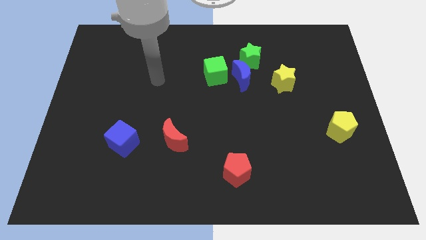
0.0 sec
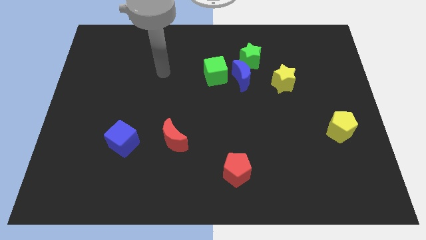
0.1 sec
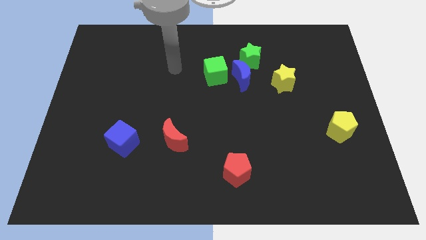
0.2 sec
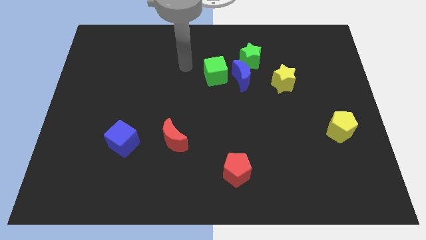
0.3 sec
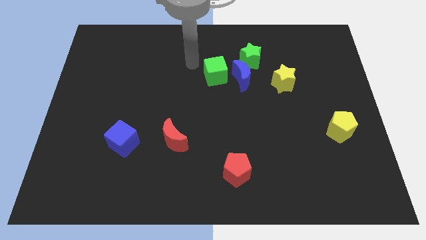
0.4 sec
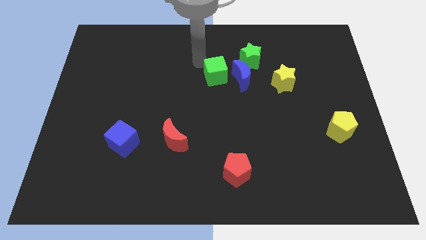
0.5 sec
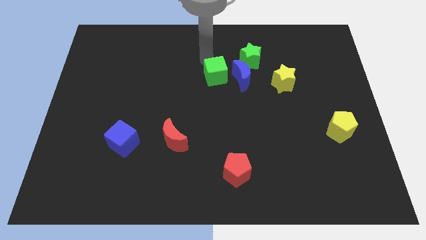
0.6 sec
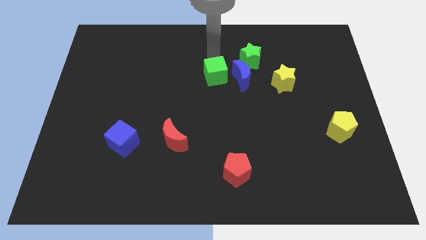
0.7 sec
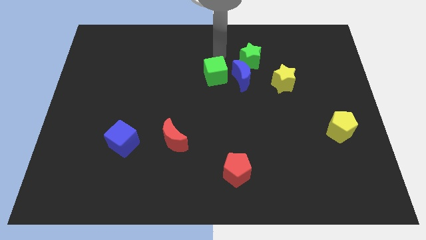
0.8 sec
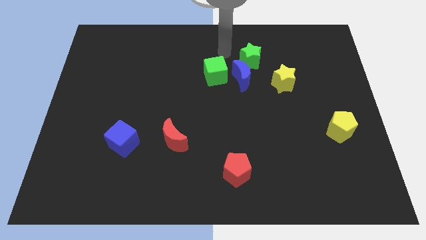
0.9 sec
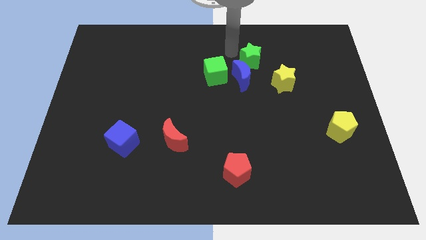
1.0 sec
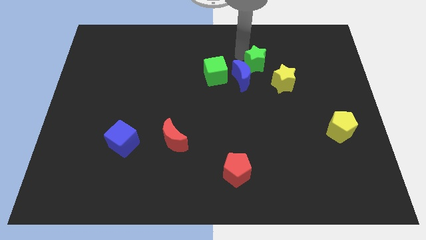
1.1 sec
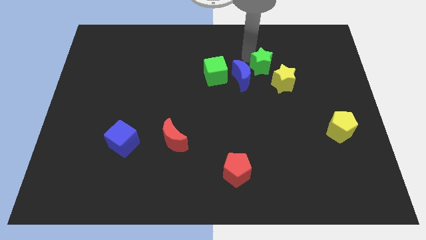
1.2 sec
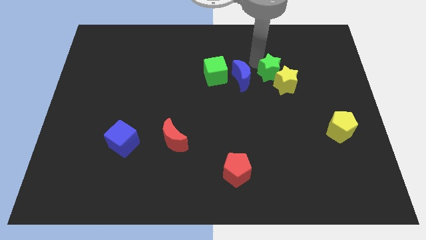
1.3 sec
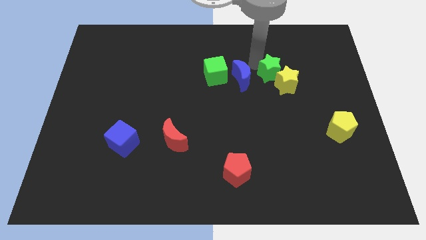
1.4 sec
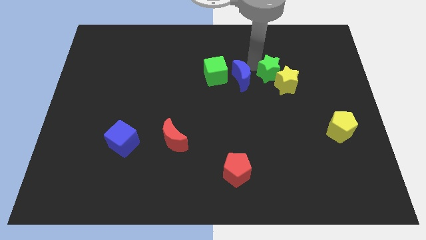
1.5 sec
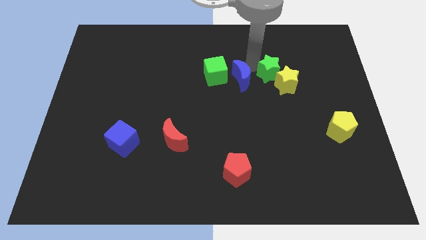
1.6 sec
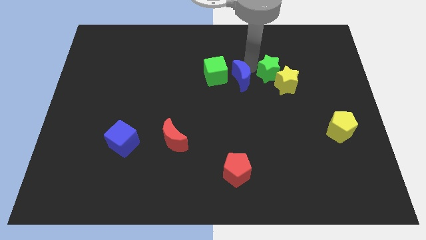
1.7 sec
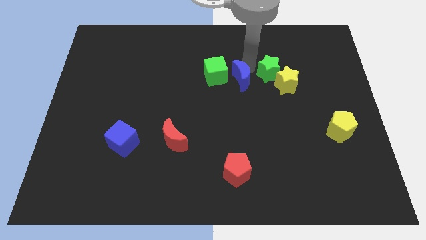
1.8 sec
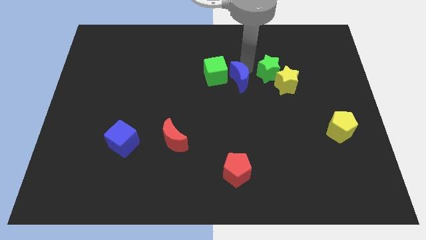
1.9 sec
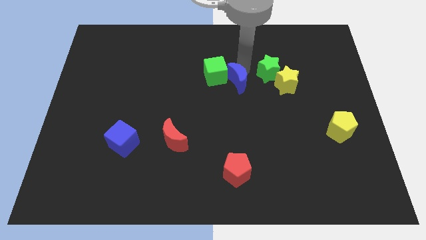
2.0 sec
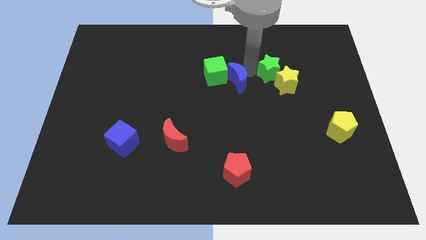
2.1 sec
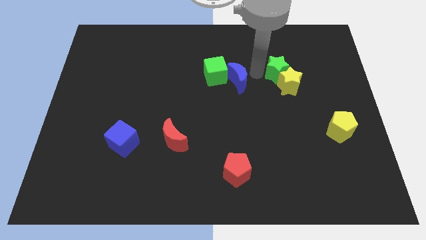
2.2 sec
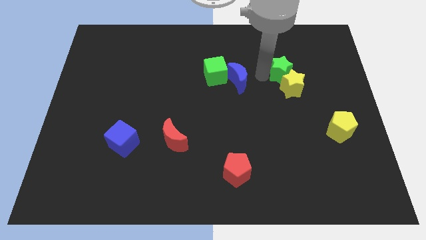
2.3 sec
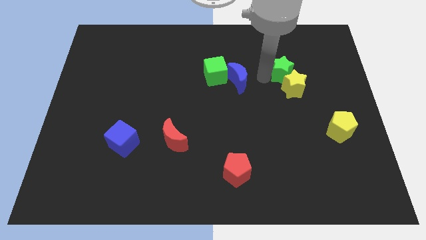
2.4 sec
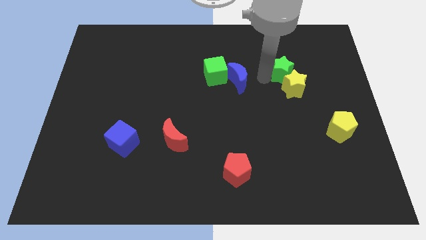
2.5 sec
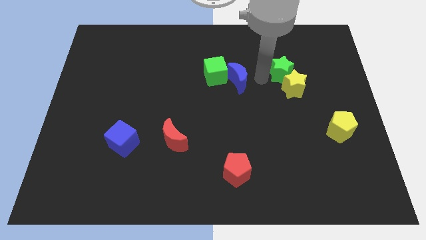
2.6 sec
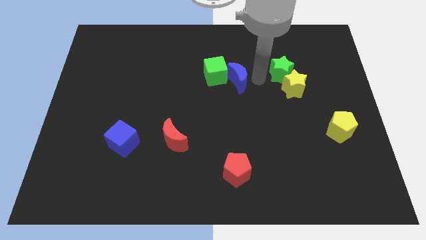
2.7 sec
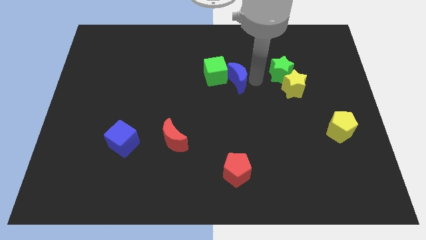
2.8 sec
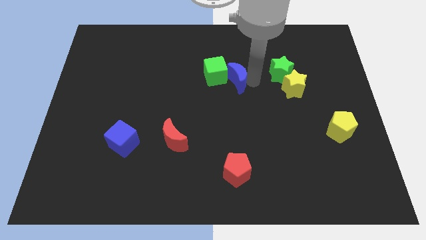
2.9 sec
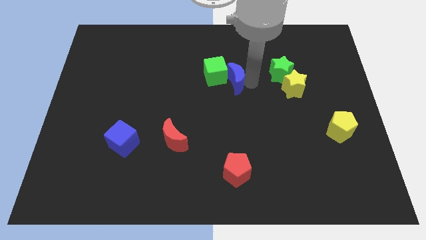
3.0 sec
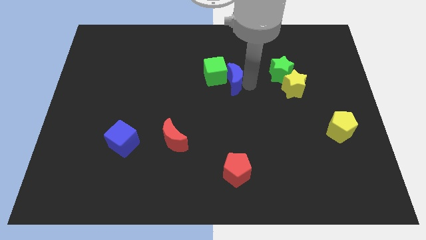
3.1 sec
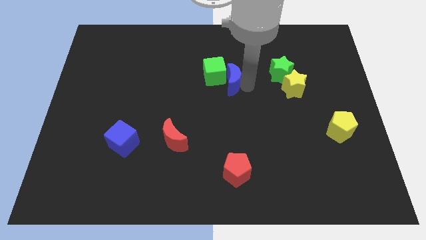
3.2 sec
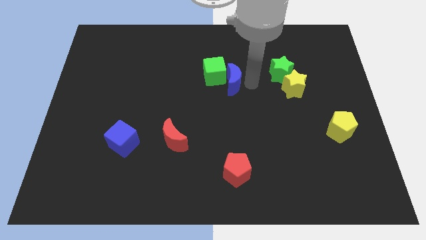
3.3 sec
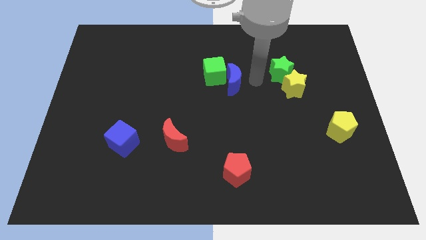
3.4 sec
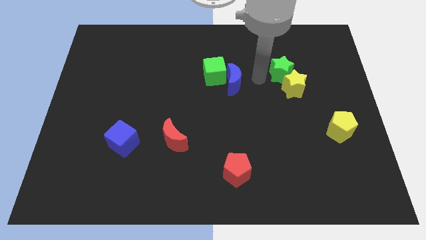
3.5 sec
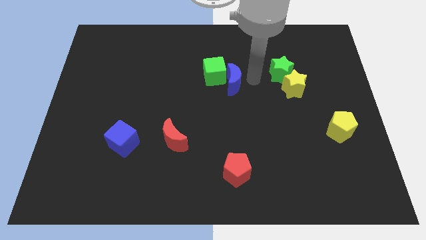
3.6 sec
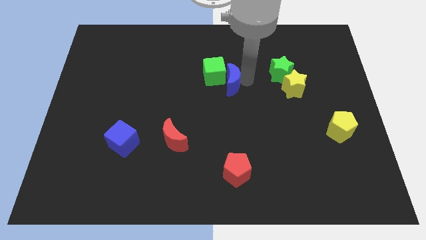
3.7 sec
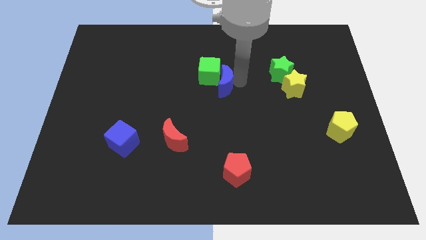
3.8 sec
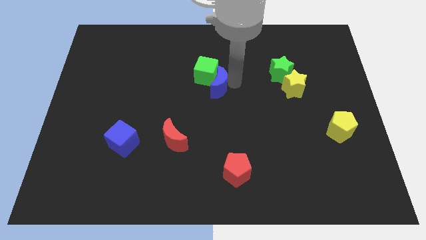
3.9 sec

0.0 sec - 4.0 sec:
move the blue moon away from the group

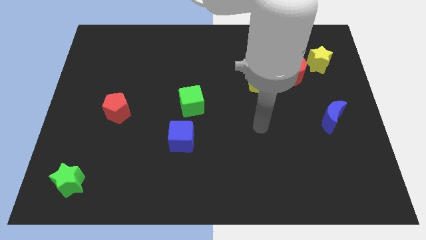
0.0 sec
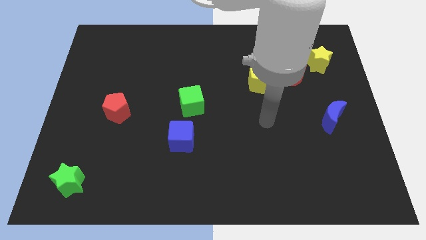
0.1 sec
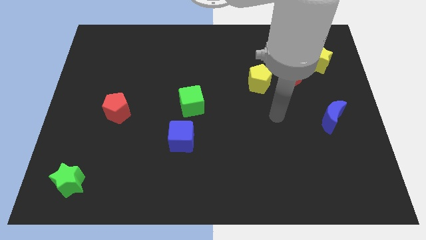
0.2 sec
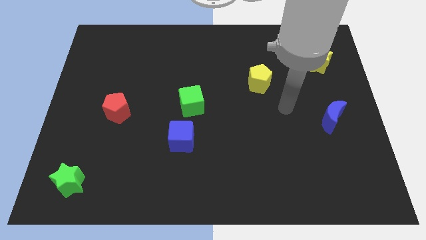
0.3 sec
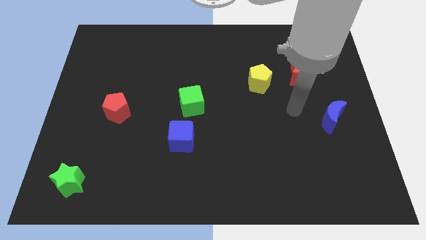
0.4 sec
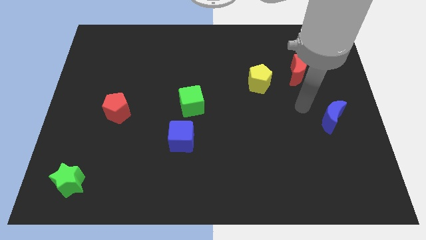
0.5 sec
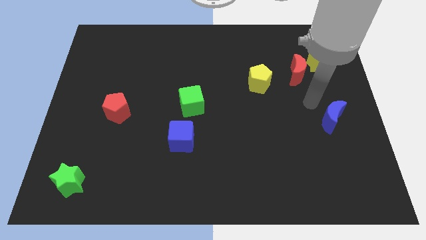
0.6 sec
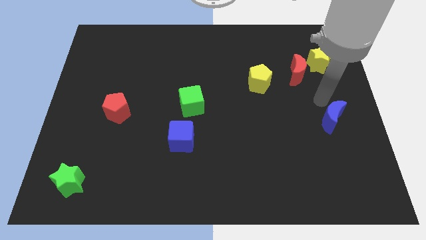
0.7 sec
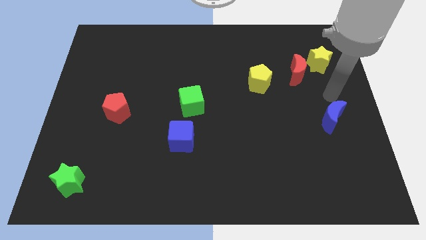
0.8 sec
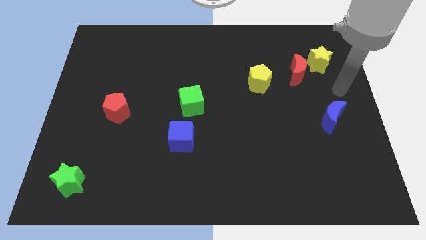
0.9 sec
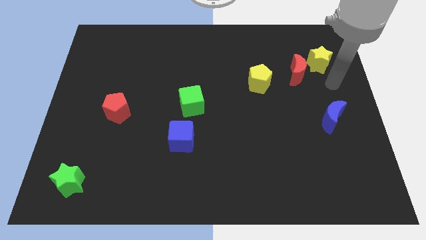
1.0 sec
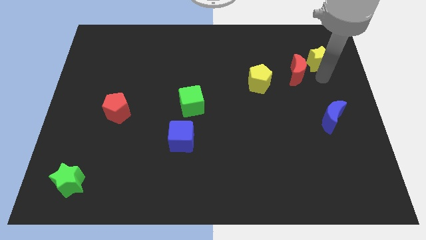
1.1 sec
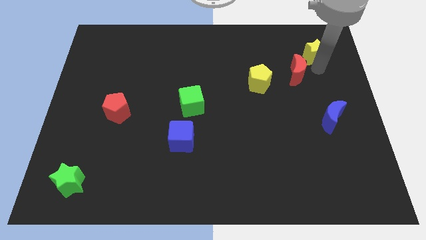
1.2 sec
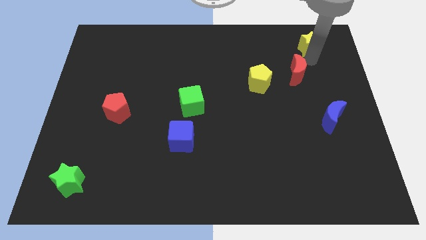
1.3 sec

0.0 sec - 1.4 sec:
pull the red moon apart from the yellow star

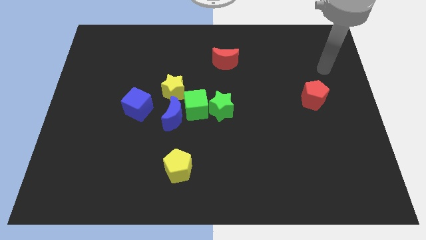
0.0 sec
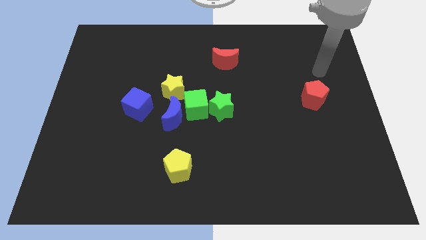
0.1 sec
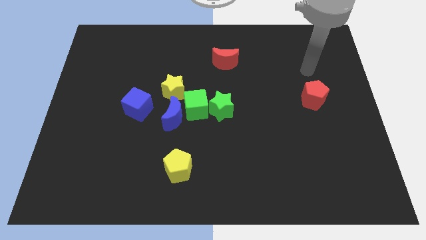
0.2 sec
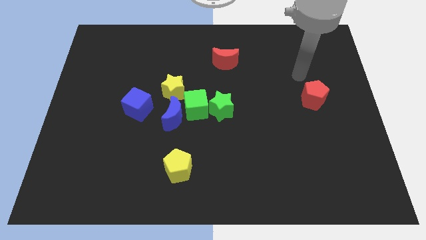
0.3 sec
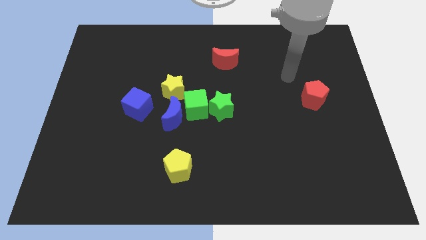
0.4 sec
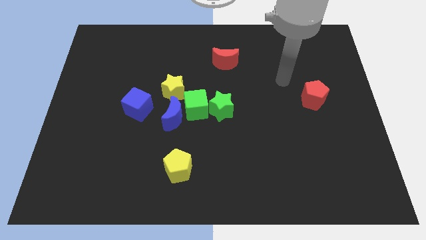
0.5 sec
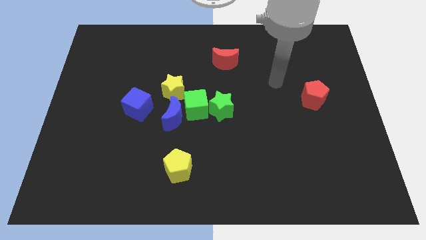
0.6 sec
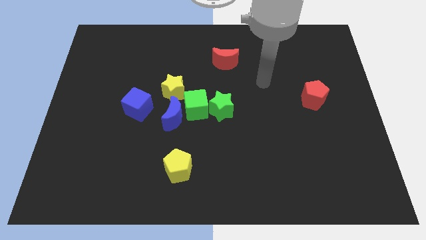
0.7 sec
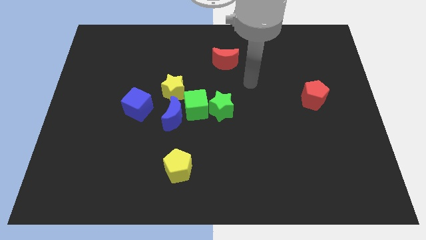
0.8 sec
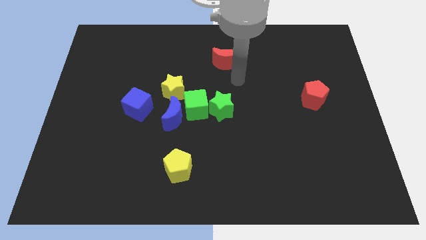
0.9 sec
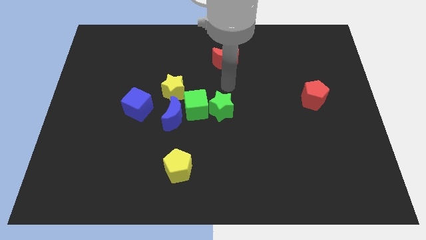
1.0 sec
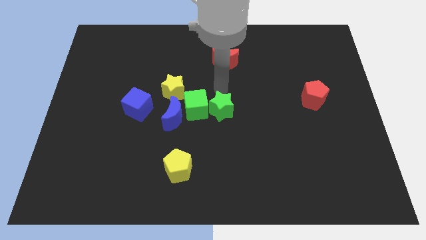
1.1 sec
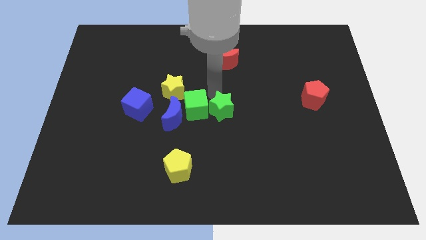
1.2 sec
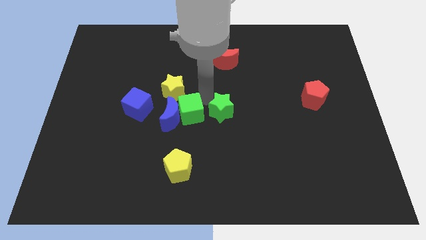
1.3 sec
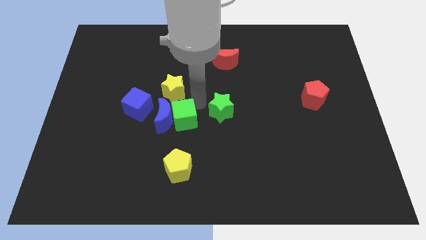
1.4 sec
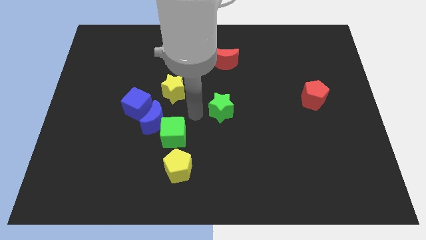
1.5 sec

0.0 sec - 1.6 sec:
move the green star away from the green cube

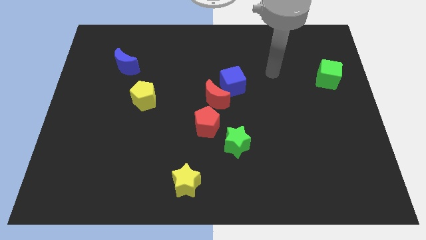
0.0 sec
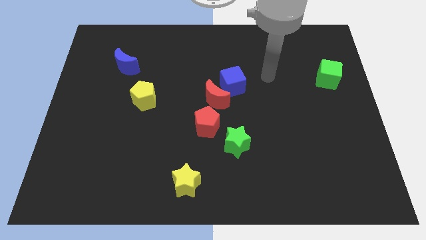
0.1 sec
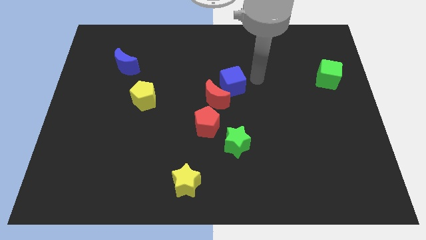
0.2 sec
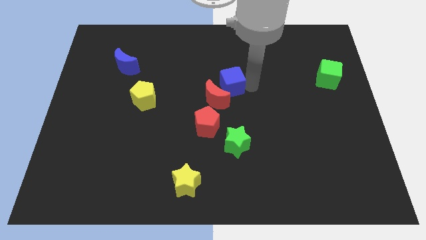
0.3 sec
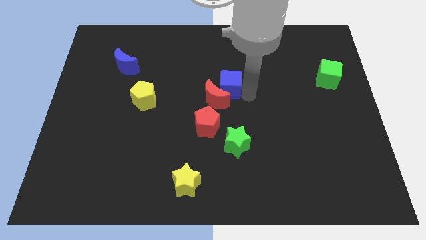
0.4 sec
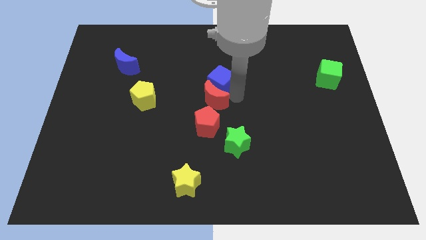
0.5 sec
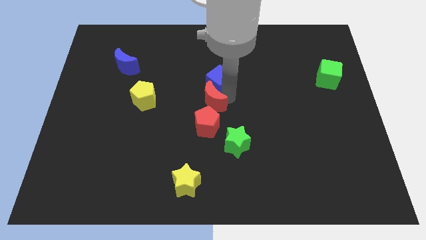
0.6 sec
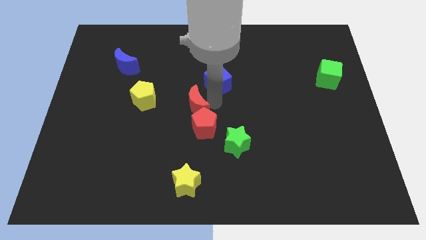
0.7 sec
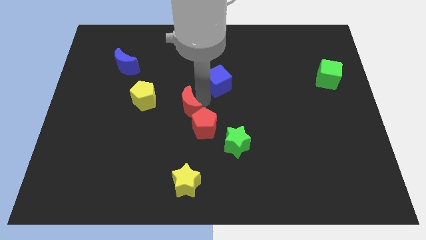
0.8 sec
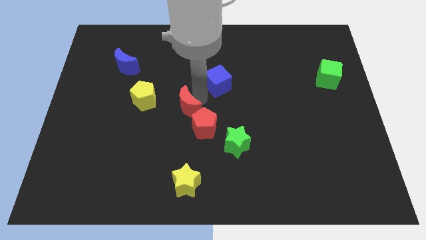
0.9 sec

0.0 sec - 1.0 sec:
move the blue cube away from the red moon

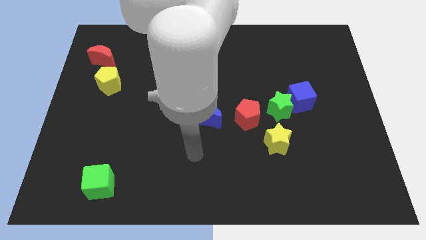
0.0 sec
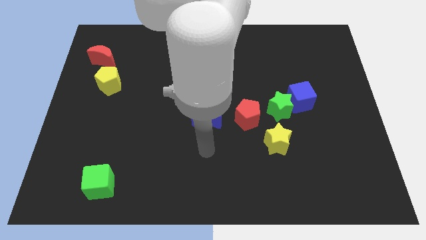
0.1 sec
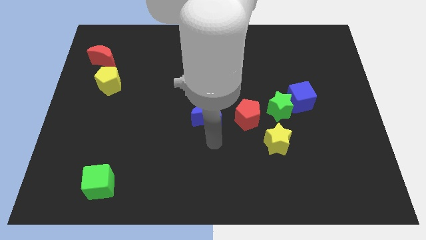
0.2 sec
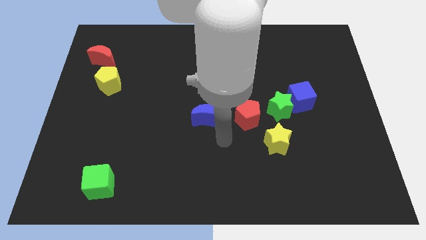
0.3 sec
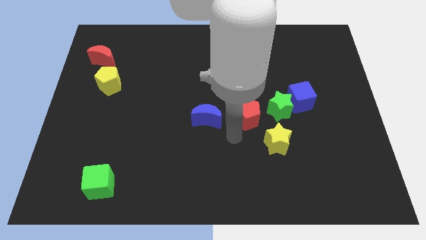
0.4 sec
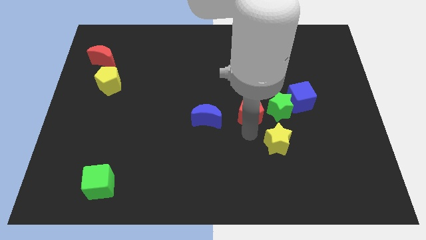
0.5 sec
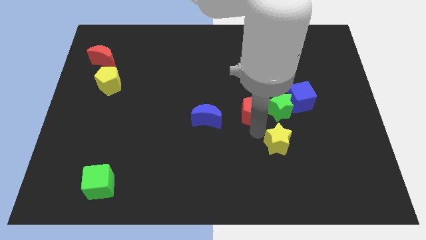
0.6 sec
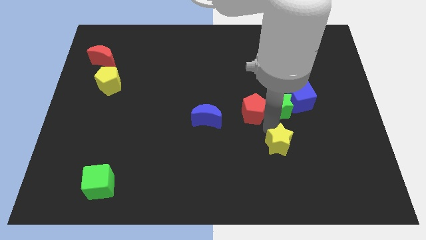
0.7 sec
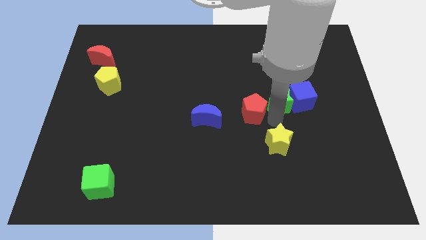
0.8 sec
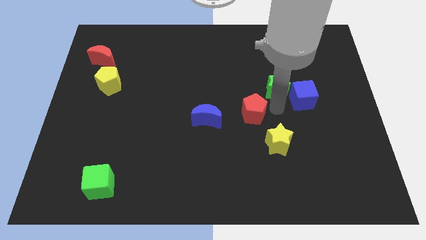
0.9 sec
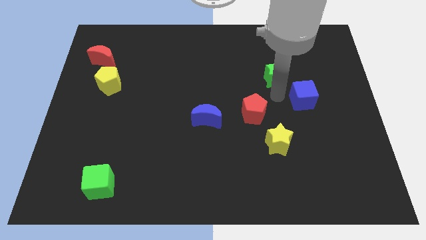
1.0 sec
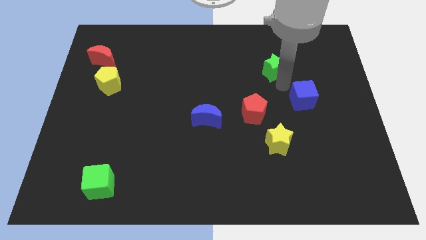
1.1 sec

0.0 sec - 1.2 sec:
separate the blue cube from the green star

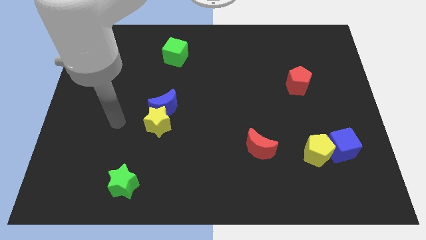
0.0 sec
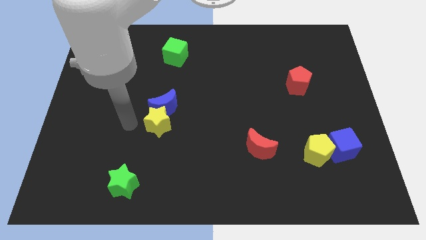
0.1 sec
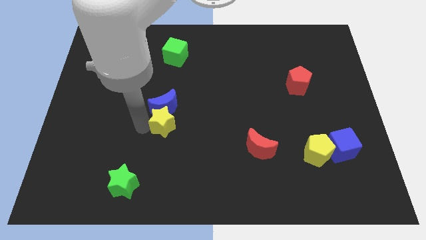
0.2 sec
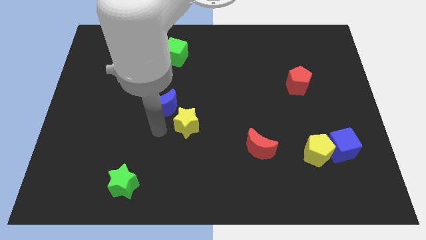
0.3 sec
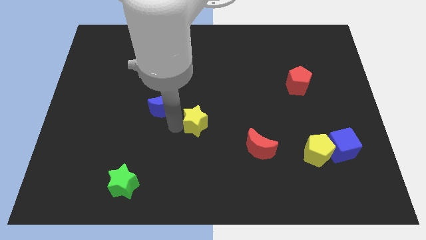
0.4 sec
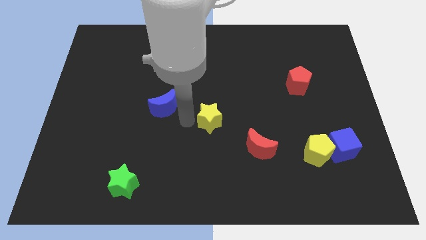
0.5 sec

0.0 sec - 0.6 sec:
pull the blue moon apart from the yellow star
